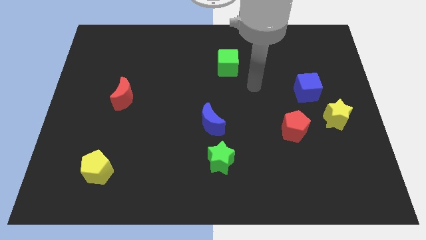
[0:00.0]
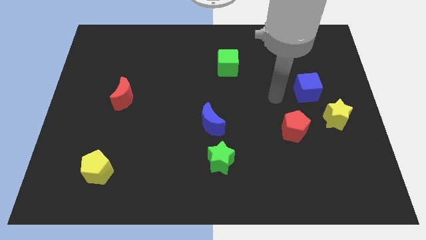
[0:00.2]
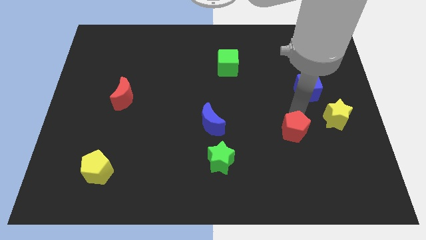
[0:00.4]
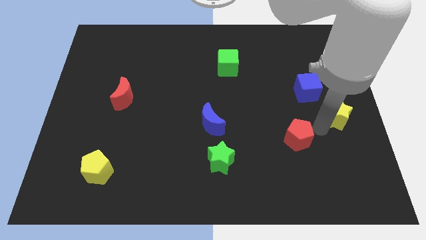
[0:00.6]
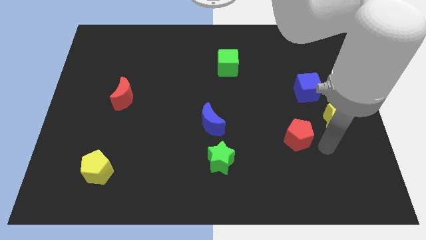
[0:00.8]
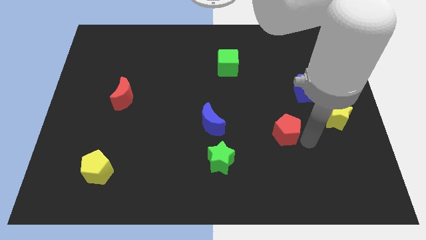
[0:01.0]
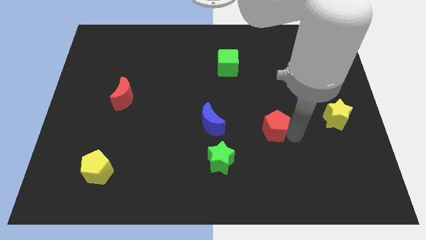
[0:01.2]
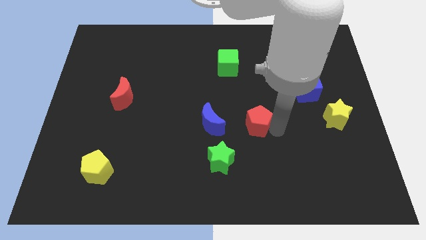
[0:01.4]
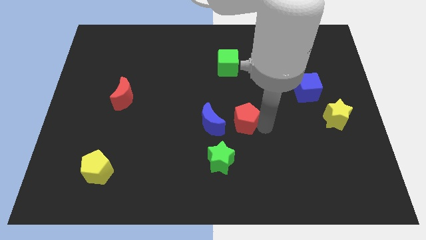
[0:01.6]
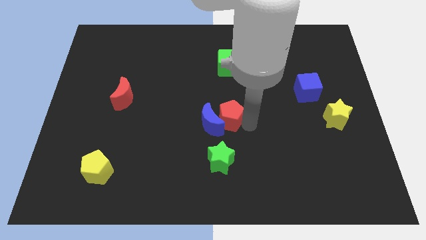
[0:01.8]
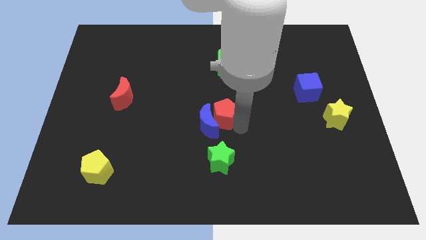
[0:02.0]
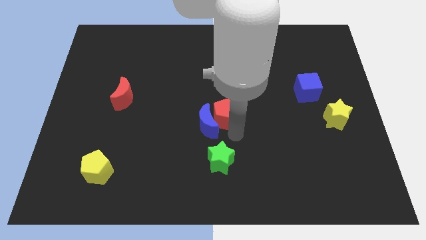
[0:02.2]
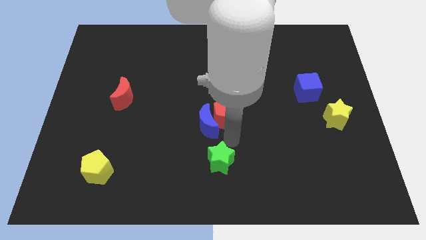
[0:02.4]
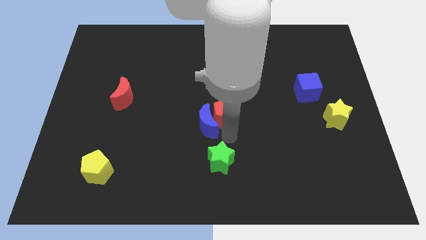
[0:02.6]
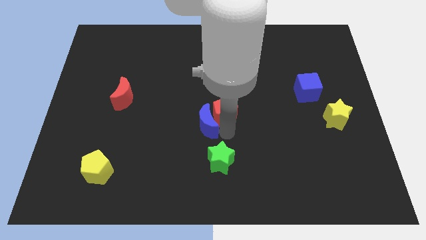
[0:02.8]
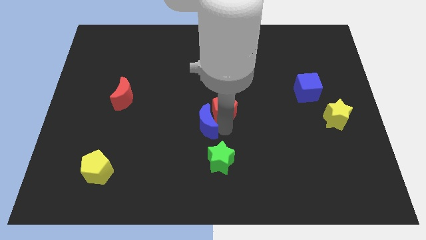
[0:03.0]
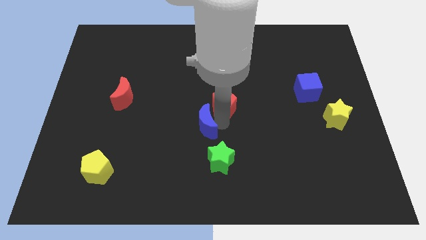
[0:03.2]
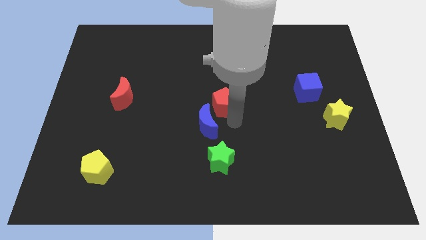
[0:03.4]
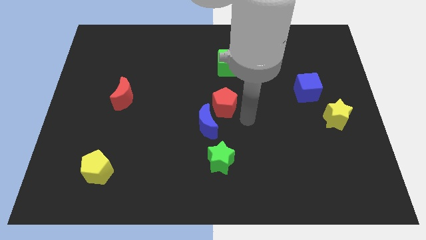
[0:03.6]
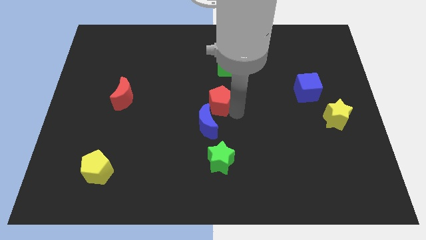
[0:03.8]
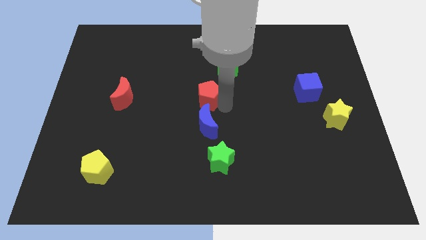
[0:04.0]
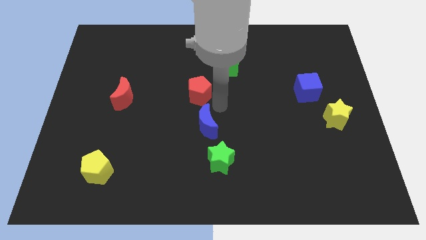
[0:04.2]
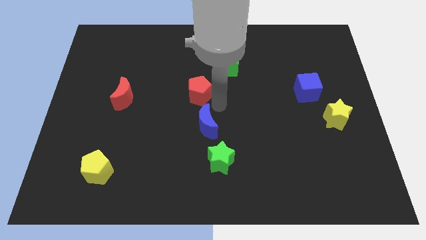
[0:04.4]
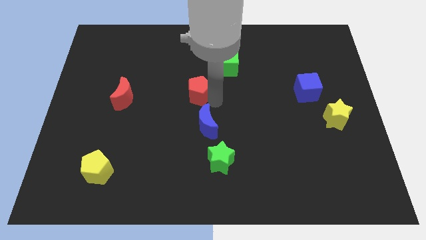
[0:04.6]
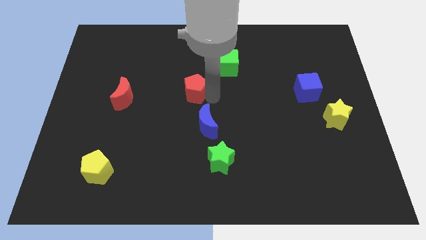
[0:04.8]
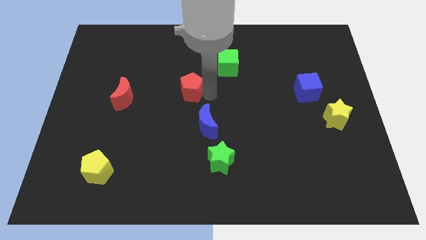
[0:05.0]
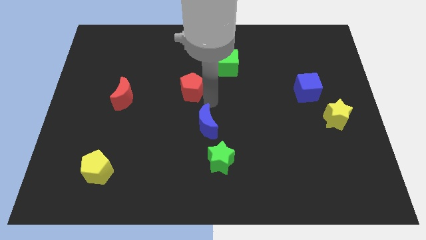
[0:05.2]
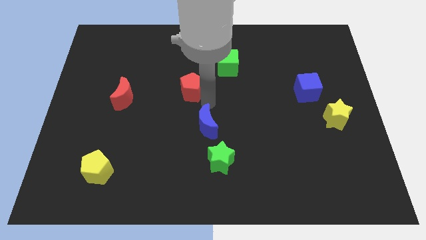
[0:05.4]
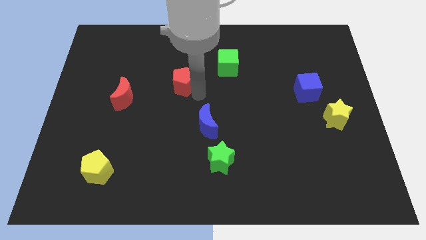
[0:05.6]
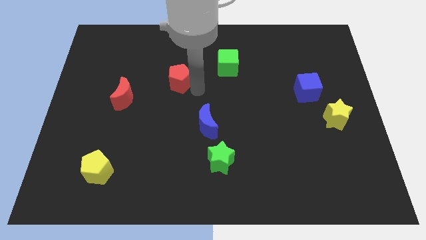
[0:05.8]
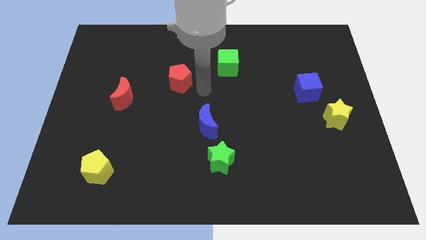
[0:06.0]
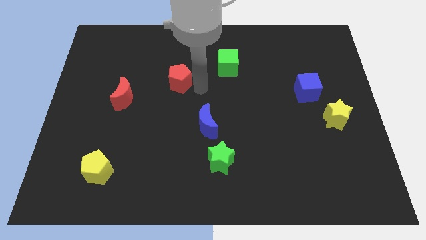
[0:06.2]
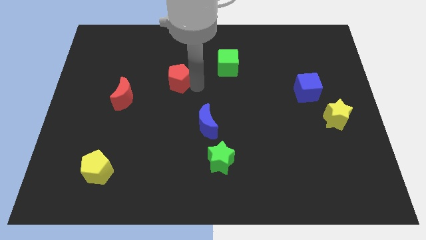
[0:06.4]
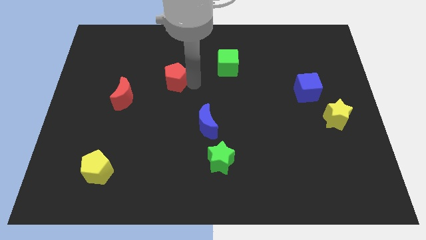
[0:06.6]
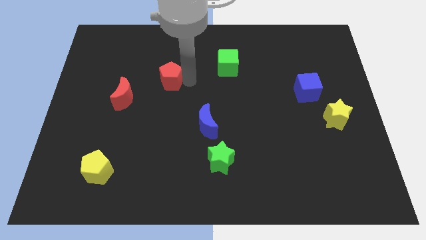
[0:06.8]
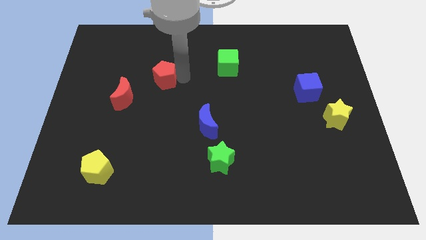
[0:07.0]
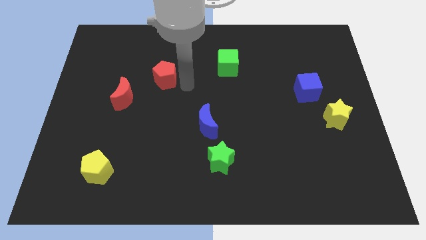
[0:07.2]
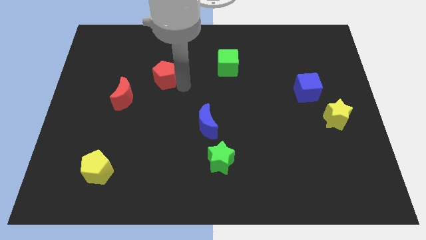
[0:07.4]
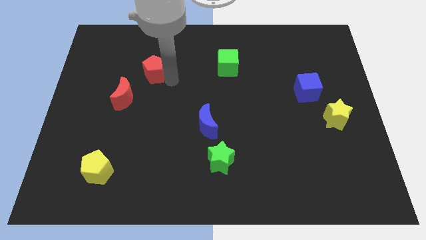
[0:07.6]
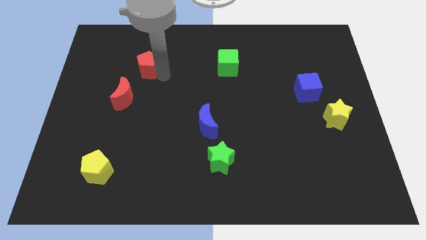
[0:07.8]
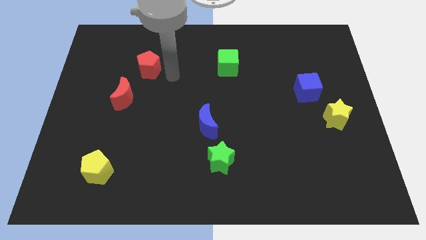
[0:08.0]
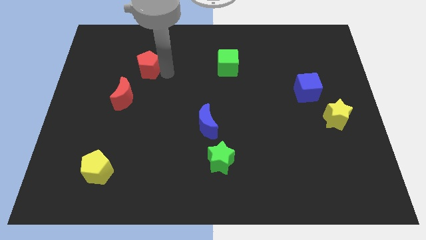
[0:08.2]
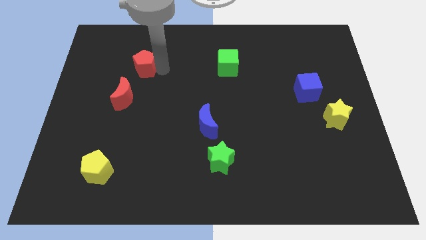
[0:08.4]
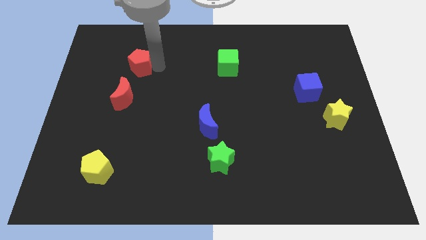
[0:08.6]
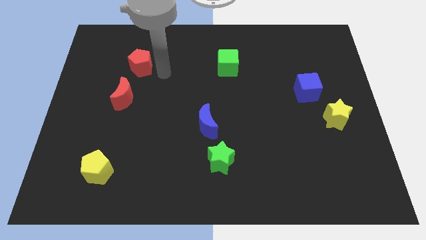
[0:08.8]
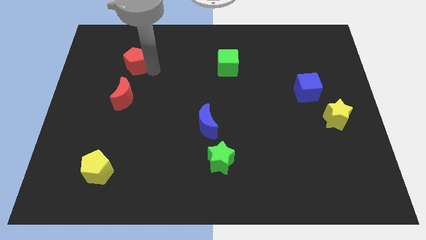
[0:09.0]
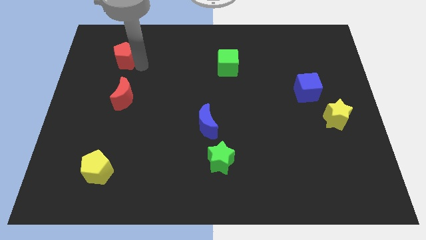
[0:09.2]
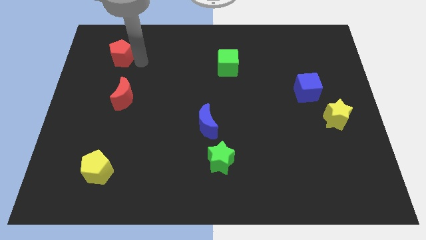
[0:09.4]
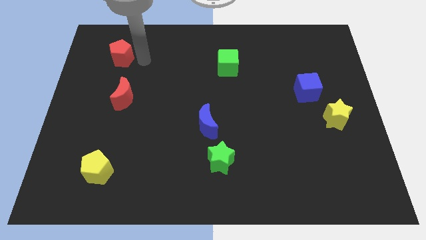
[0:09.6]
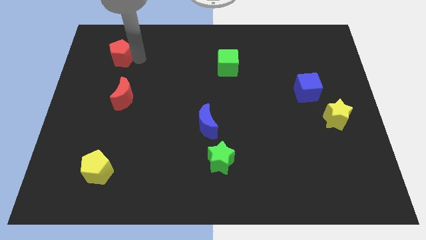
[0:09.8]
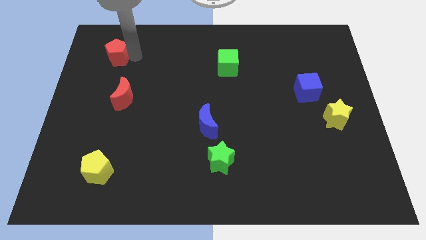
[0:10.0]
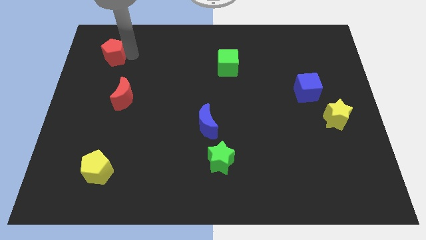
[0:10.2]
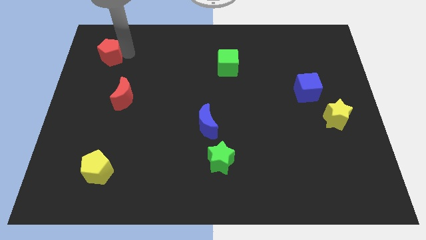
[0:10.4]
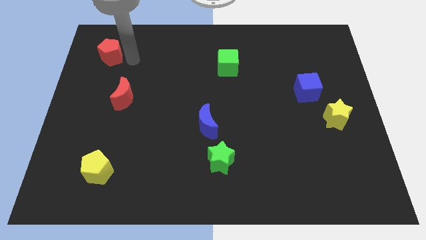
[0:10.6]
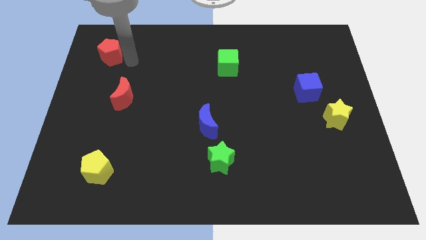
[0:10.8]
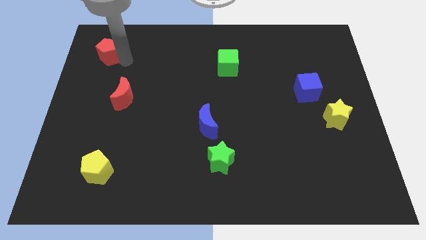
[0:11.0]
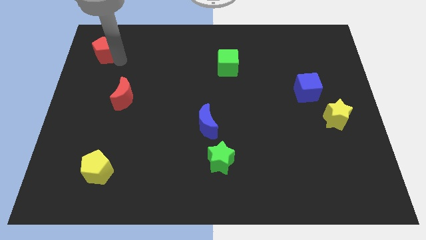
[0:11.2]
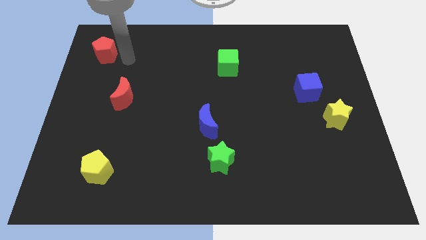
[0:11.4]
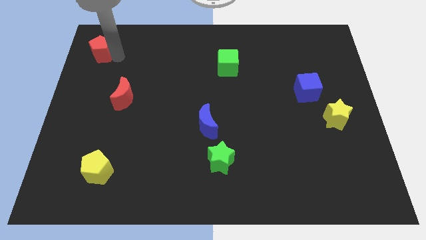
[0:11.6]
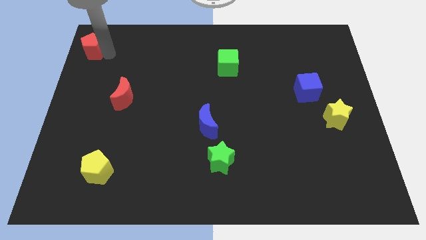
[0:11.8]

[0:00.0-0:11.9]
move the red pentagon to the top left of the board

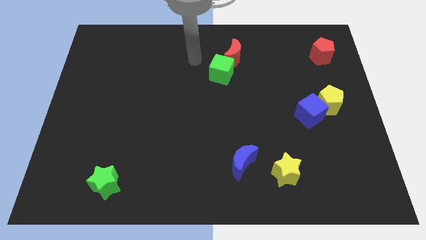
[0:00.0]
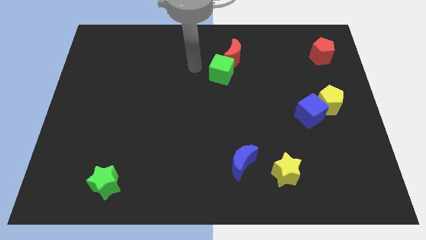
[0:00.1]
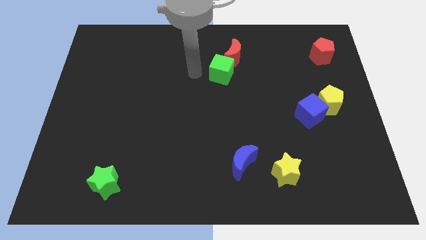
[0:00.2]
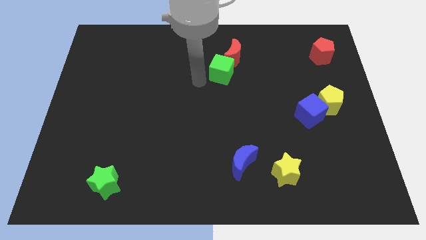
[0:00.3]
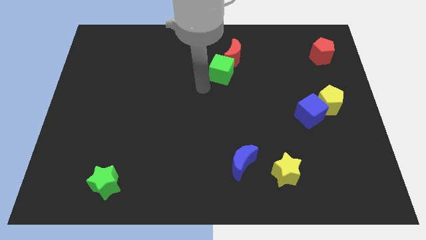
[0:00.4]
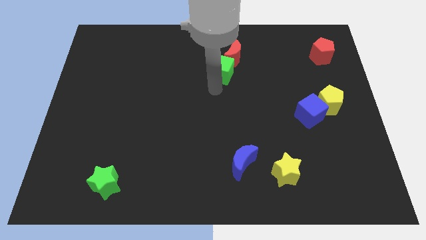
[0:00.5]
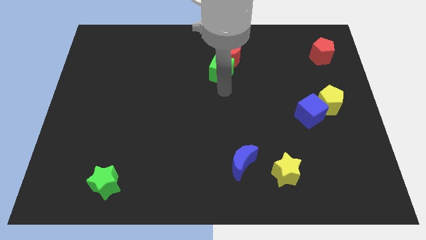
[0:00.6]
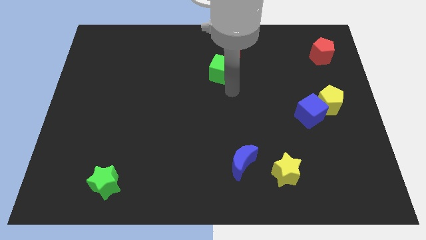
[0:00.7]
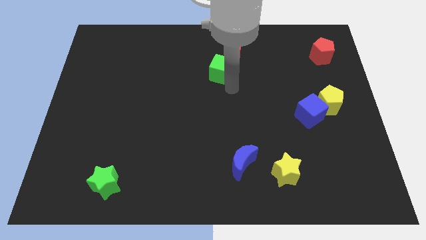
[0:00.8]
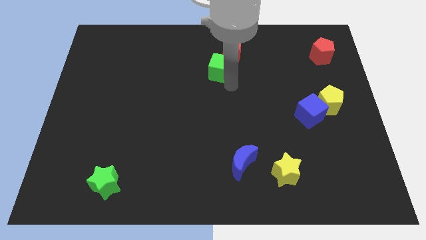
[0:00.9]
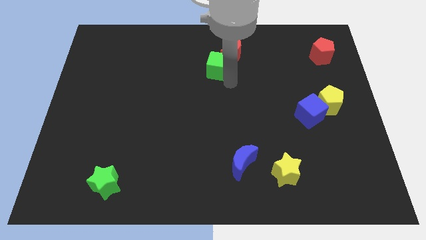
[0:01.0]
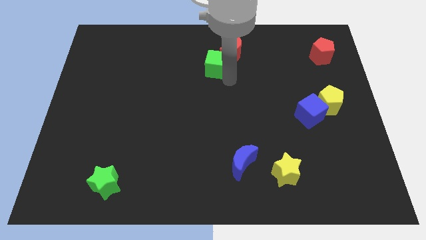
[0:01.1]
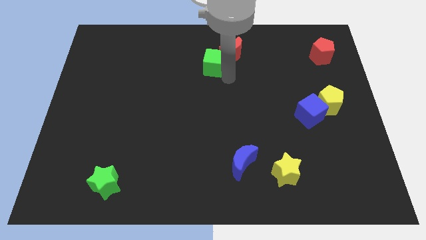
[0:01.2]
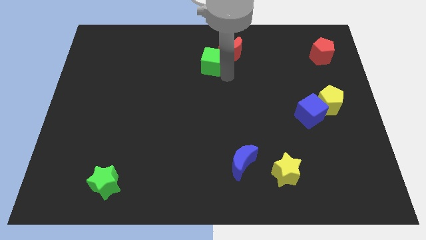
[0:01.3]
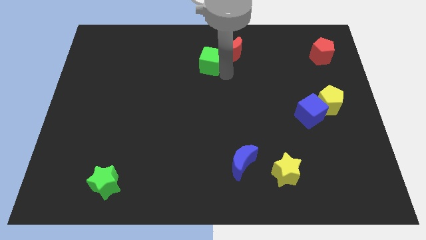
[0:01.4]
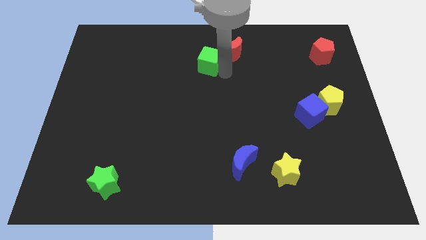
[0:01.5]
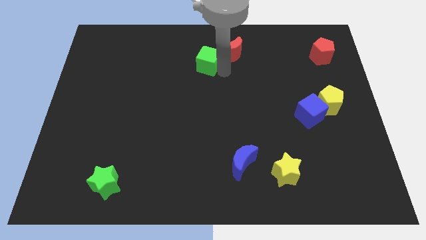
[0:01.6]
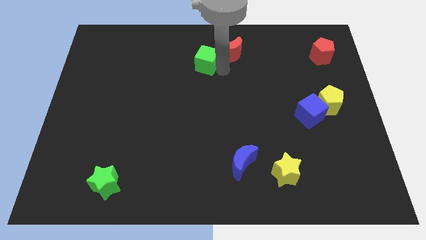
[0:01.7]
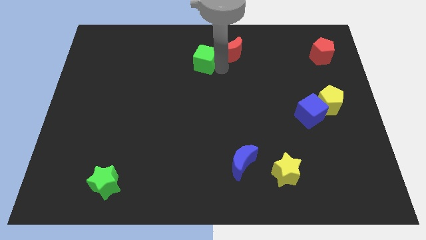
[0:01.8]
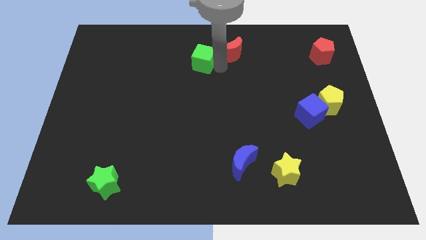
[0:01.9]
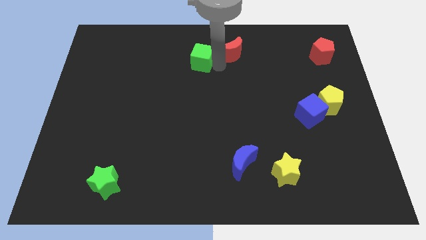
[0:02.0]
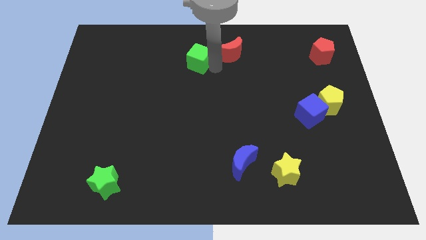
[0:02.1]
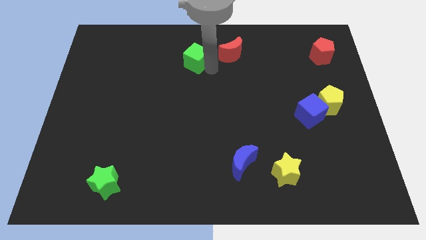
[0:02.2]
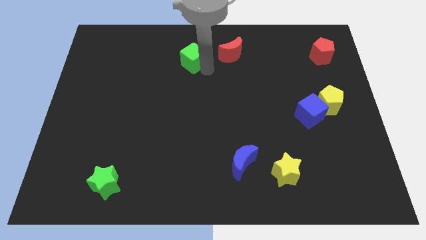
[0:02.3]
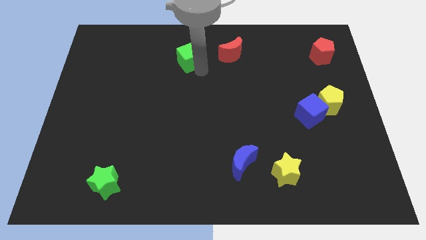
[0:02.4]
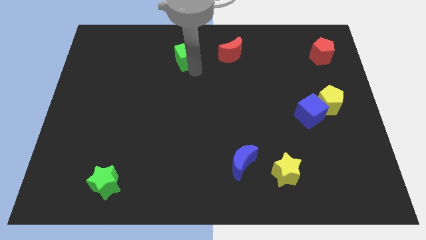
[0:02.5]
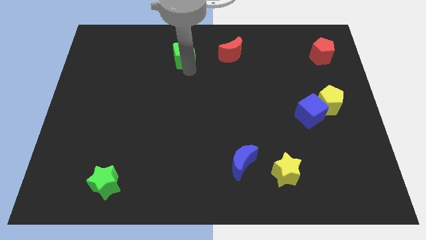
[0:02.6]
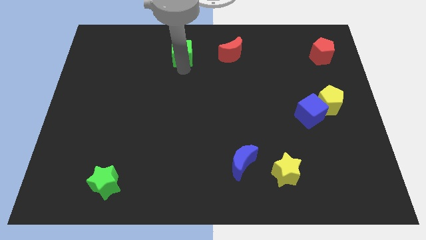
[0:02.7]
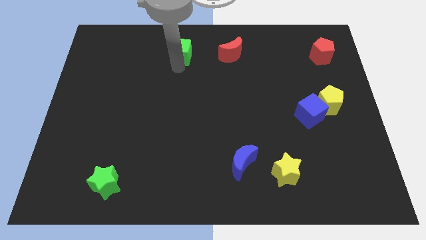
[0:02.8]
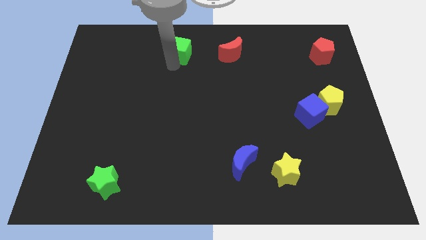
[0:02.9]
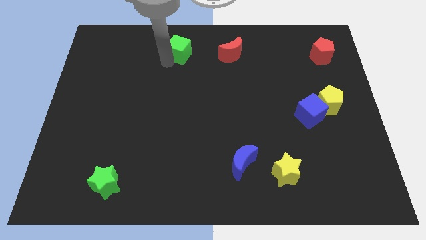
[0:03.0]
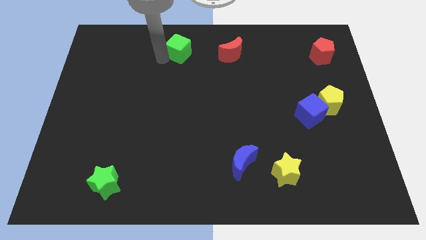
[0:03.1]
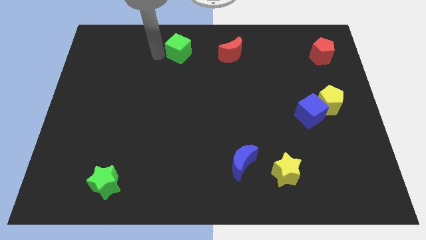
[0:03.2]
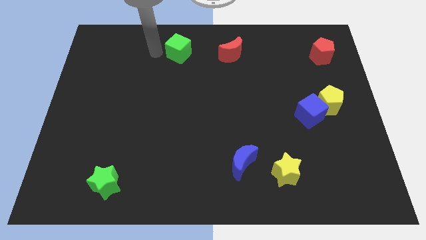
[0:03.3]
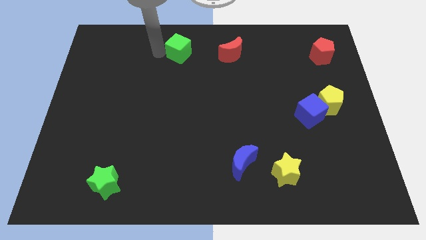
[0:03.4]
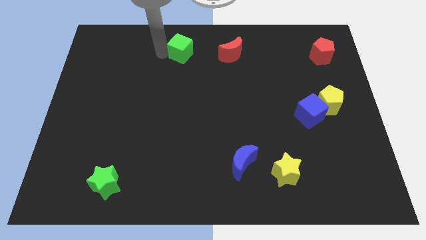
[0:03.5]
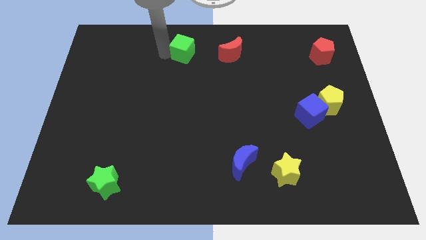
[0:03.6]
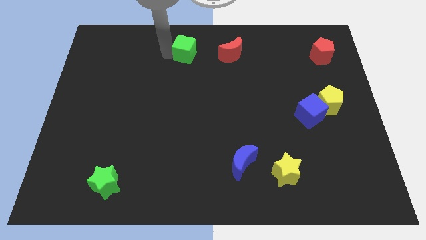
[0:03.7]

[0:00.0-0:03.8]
put the green cube to the towards your base
